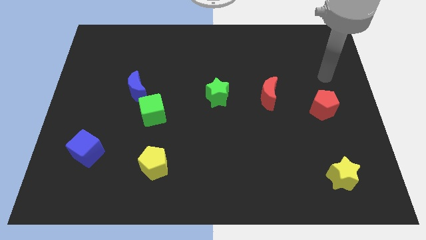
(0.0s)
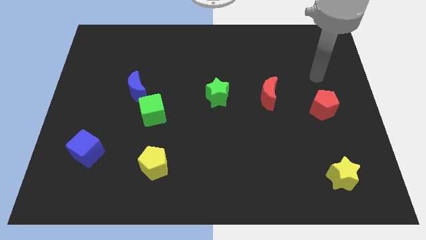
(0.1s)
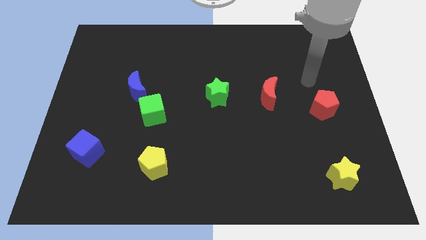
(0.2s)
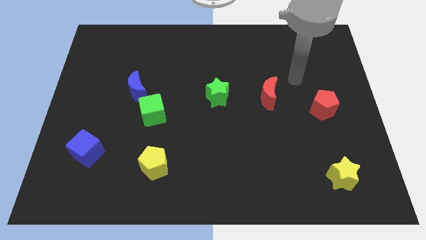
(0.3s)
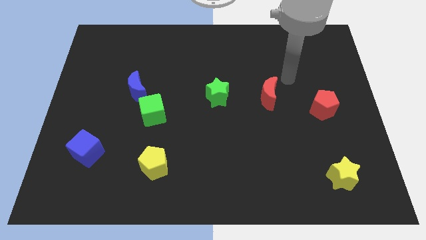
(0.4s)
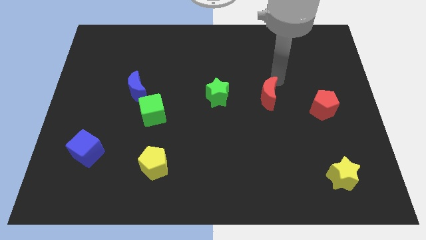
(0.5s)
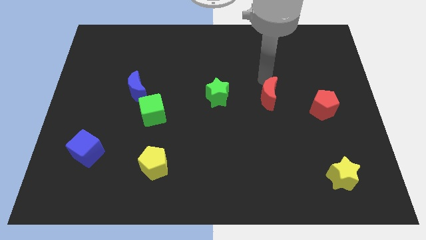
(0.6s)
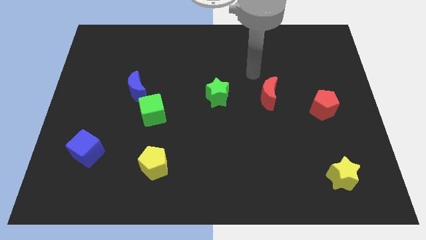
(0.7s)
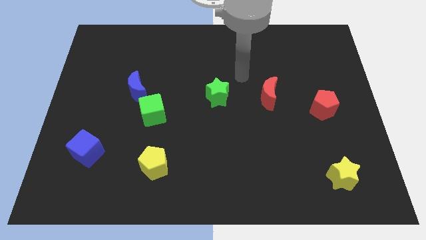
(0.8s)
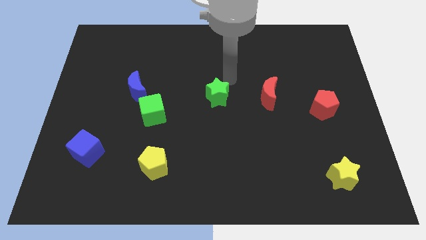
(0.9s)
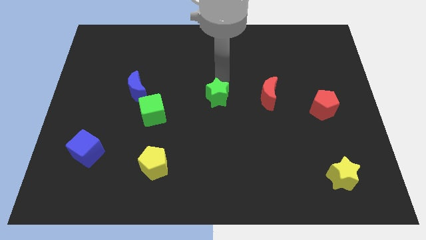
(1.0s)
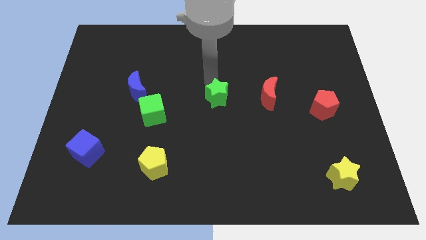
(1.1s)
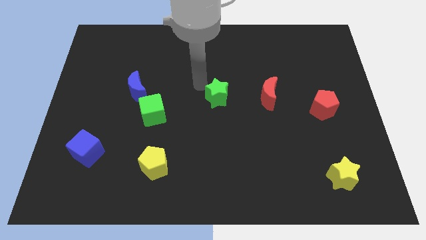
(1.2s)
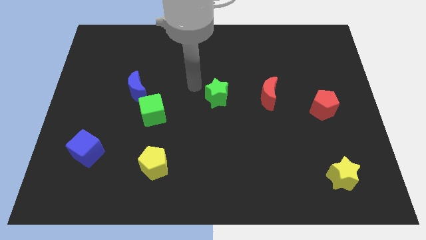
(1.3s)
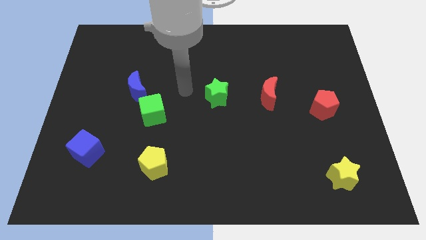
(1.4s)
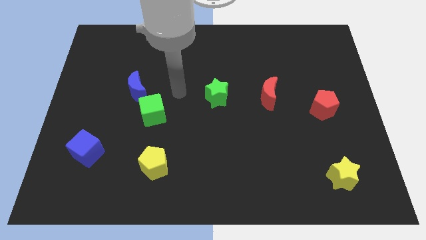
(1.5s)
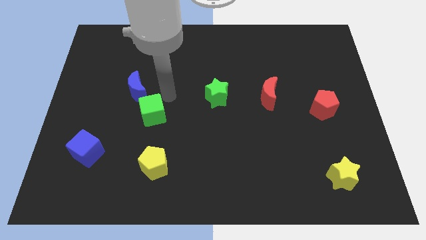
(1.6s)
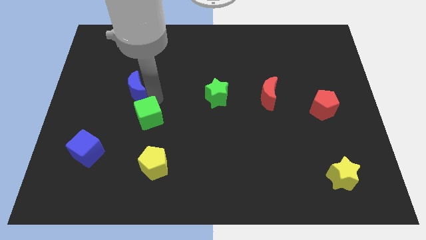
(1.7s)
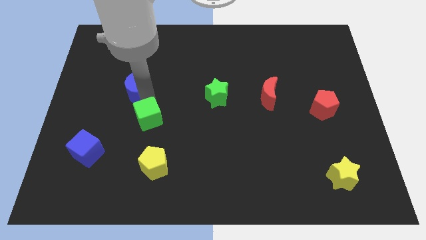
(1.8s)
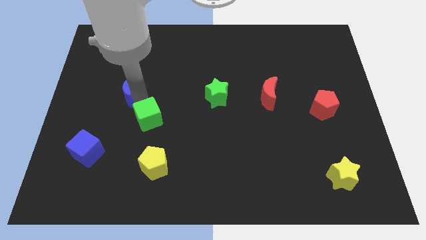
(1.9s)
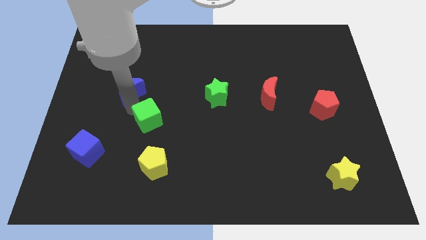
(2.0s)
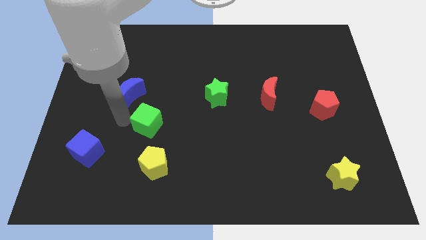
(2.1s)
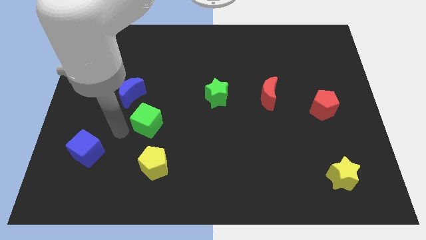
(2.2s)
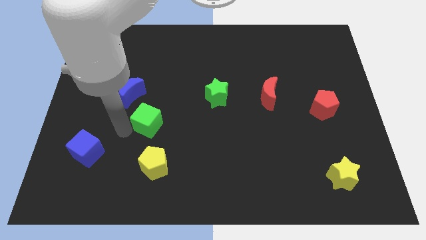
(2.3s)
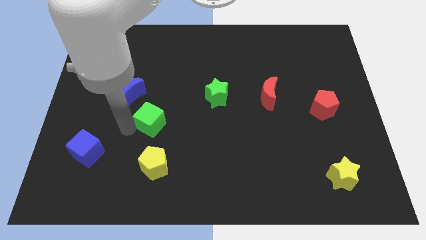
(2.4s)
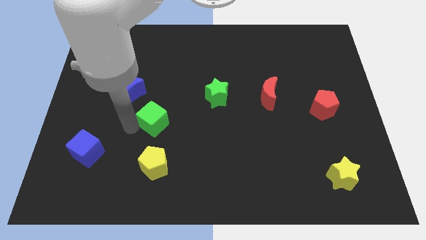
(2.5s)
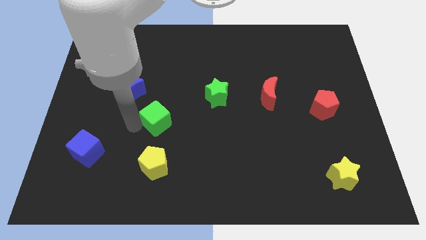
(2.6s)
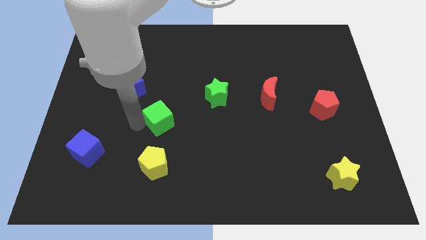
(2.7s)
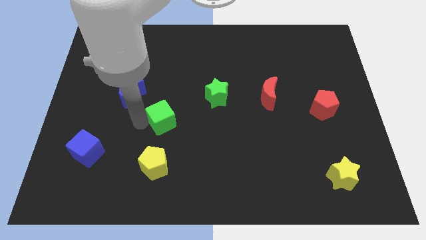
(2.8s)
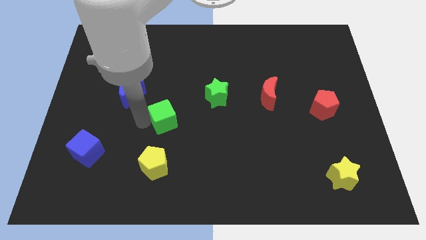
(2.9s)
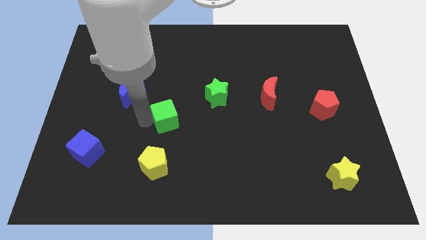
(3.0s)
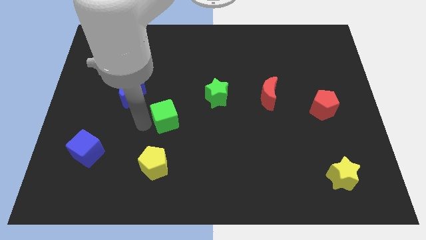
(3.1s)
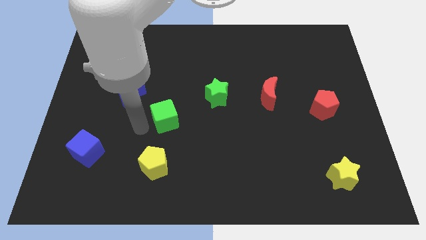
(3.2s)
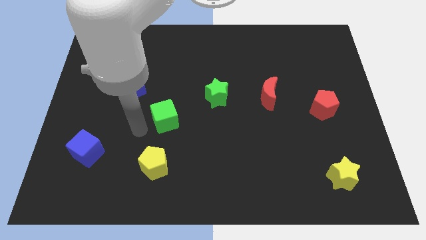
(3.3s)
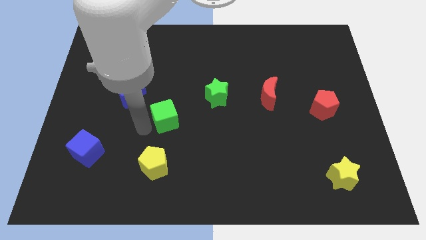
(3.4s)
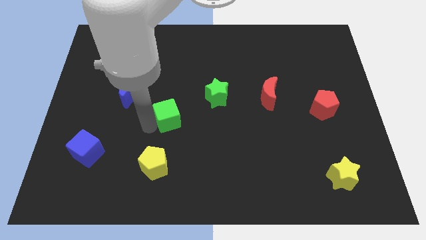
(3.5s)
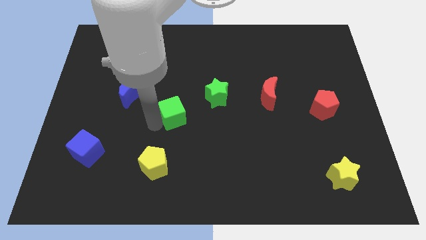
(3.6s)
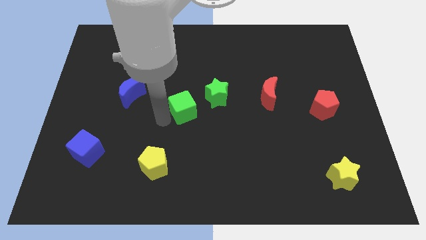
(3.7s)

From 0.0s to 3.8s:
push the green cube to the right somewhat

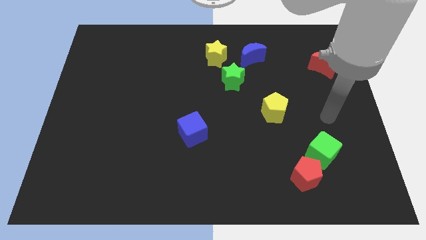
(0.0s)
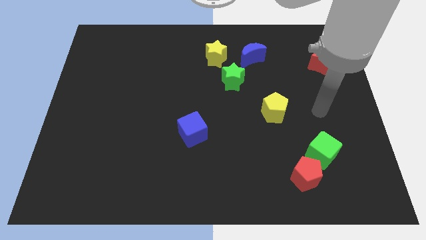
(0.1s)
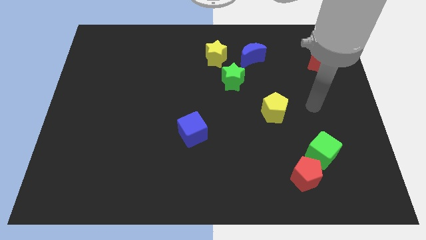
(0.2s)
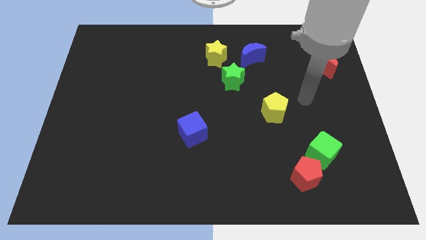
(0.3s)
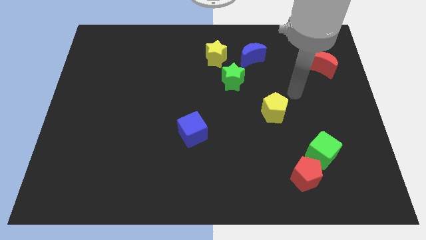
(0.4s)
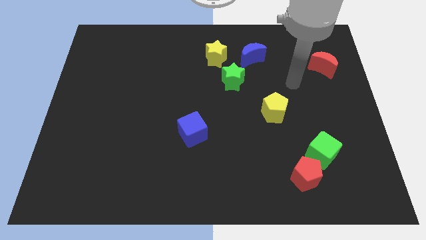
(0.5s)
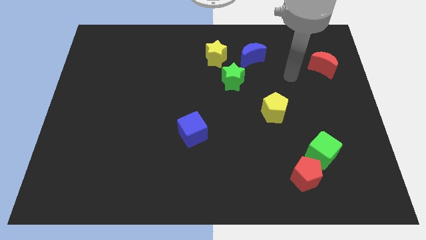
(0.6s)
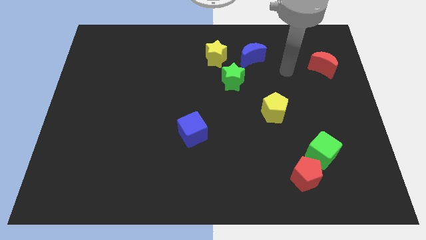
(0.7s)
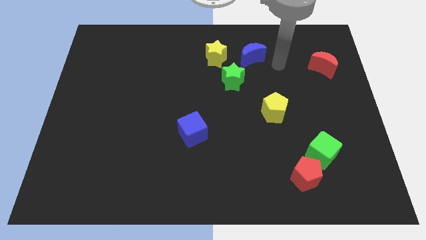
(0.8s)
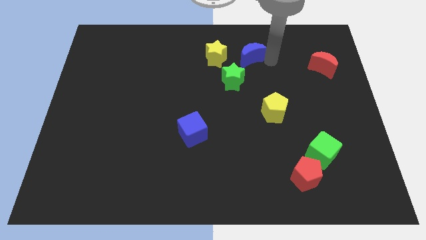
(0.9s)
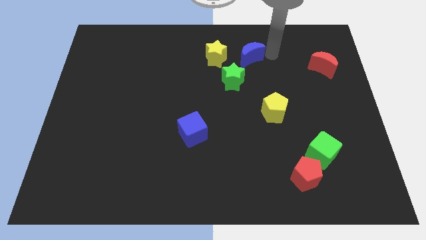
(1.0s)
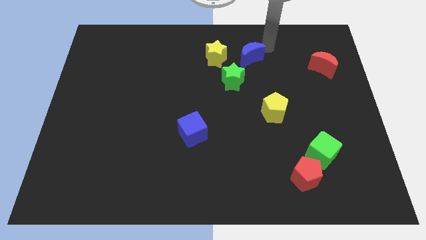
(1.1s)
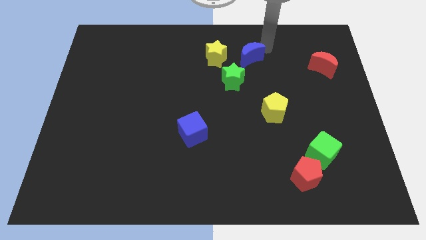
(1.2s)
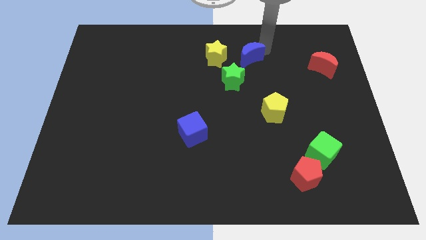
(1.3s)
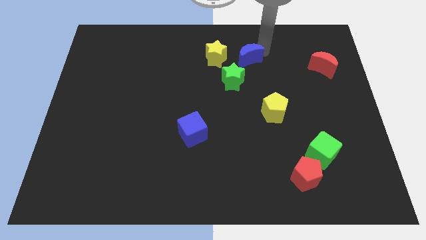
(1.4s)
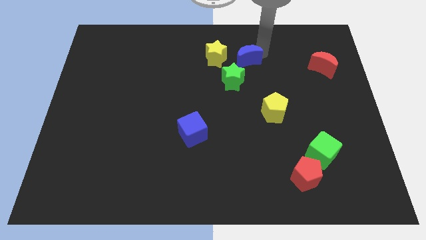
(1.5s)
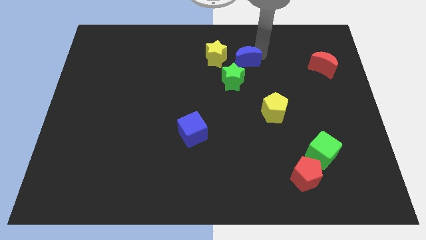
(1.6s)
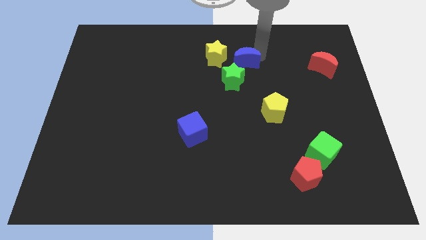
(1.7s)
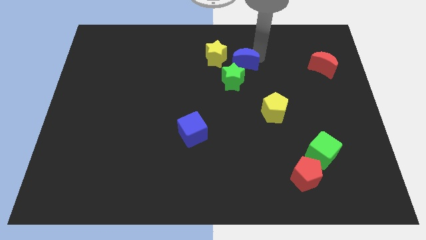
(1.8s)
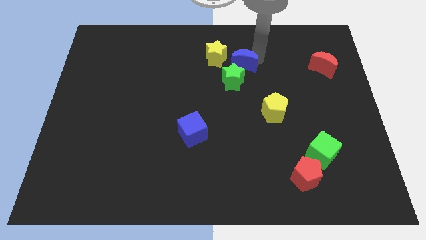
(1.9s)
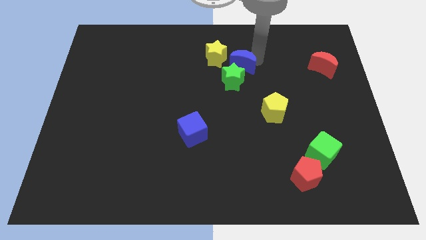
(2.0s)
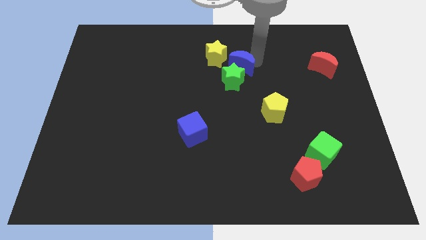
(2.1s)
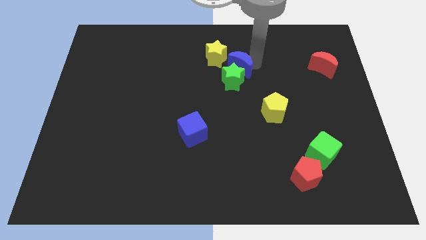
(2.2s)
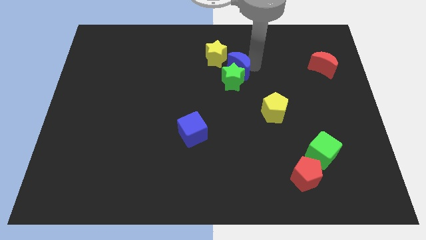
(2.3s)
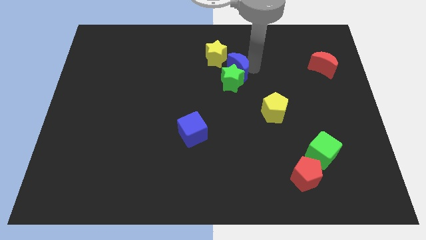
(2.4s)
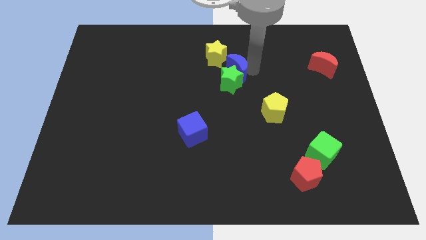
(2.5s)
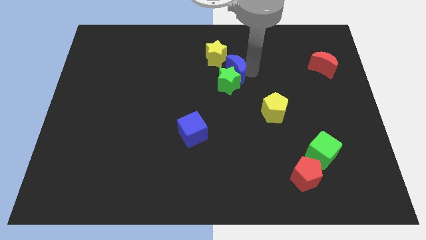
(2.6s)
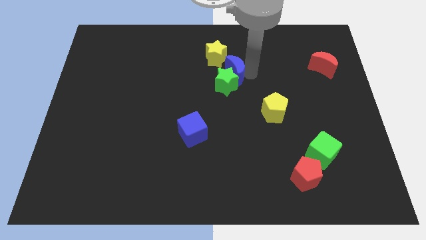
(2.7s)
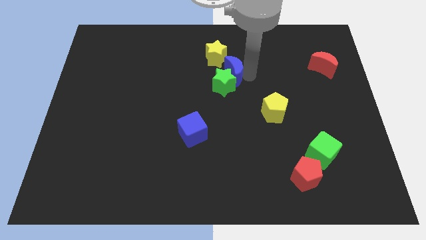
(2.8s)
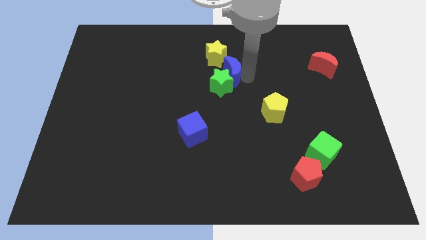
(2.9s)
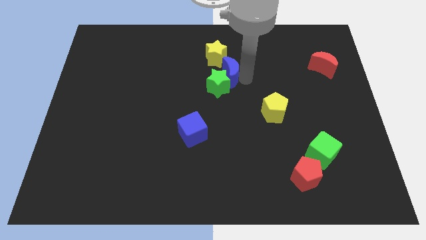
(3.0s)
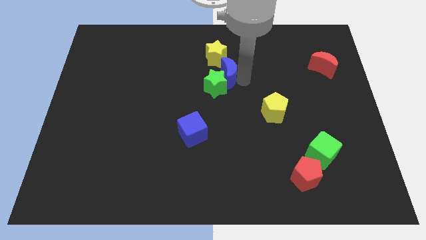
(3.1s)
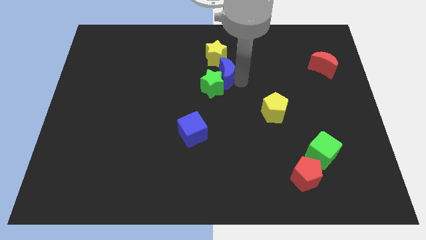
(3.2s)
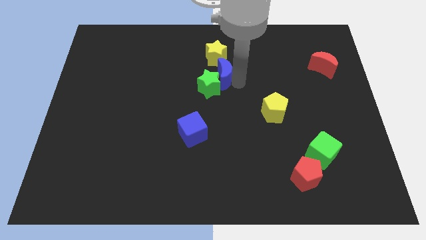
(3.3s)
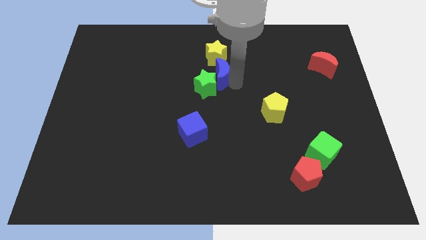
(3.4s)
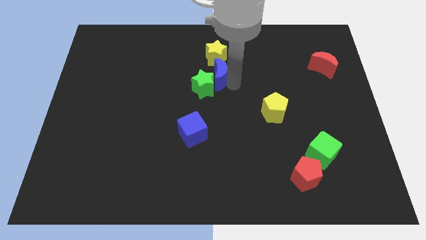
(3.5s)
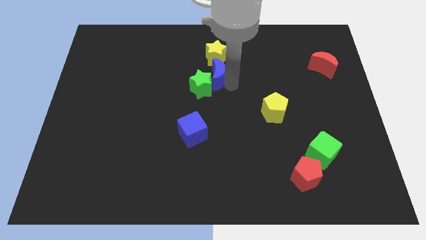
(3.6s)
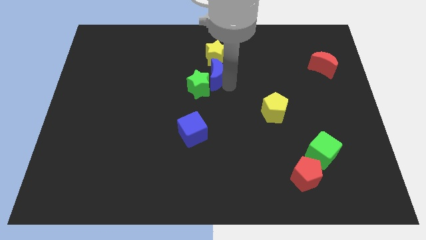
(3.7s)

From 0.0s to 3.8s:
slightly move the blue moon left

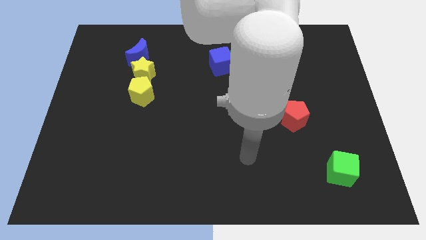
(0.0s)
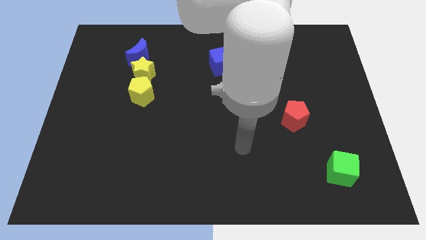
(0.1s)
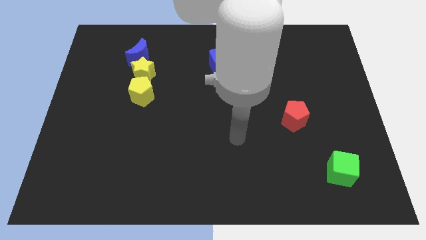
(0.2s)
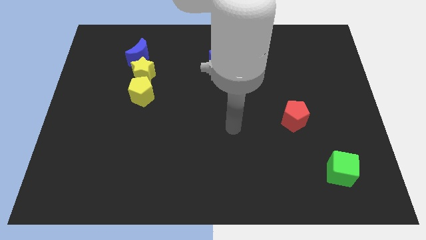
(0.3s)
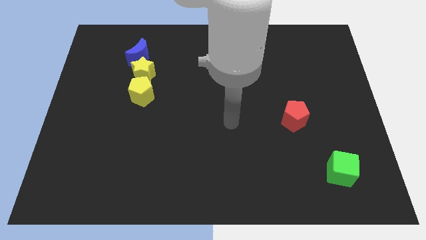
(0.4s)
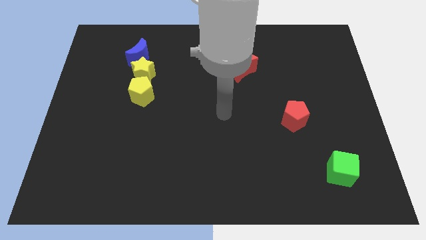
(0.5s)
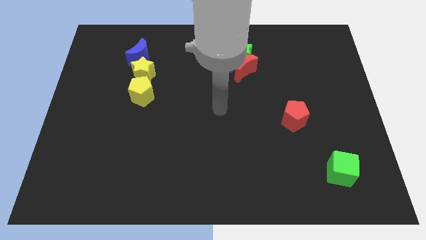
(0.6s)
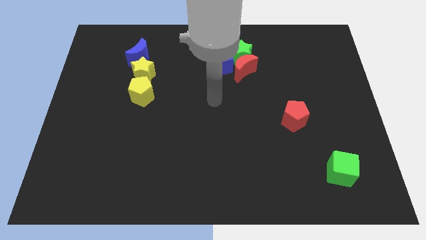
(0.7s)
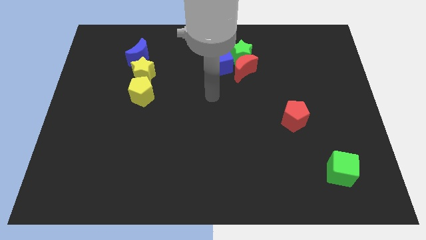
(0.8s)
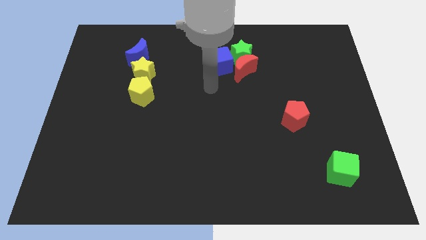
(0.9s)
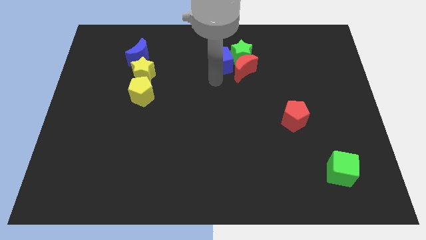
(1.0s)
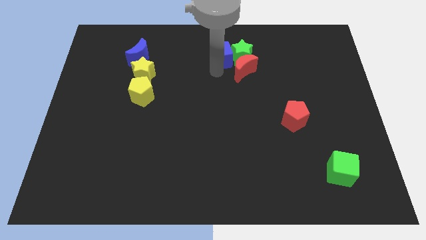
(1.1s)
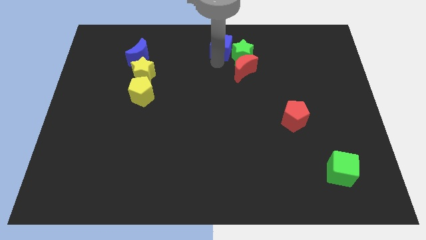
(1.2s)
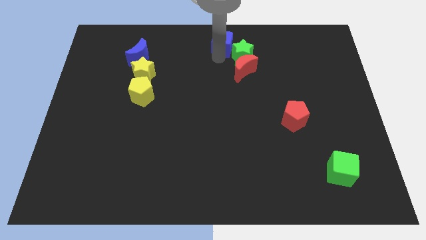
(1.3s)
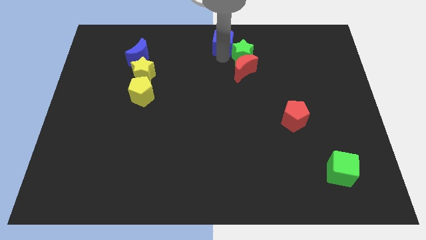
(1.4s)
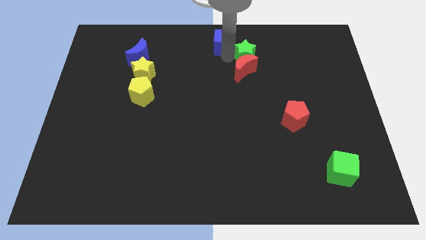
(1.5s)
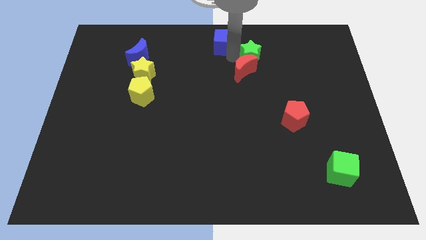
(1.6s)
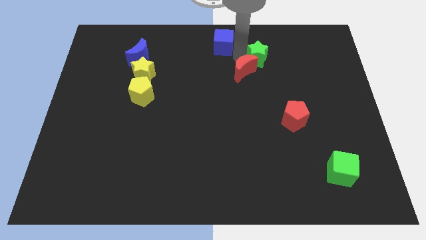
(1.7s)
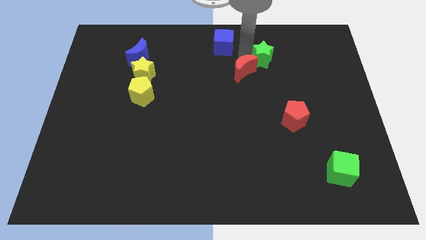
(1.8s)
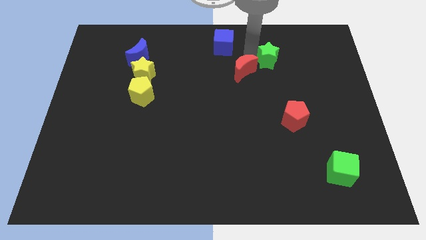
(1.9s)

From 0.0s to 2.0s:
slightly push the green star right
